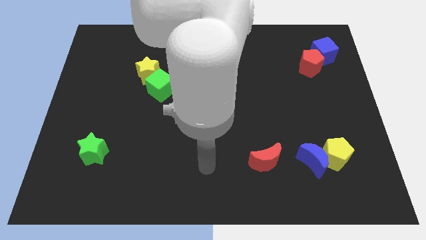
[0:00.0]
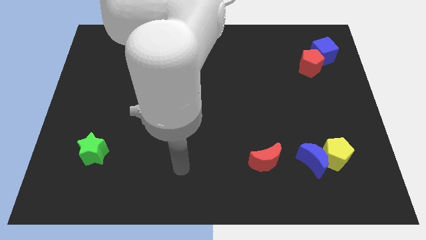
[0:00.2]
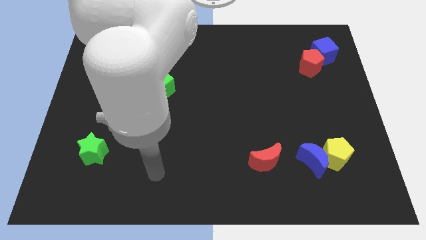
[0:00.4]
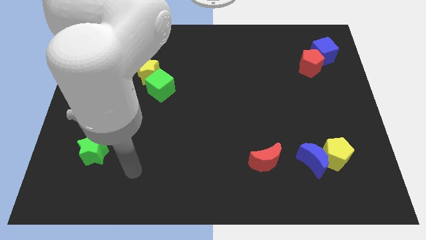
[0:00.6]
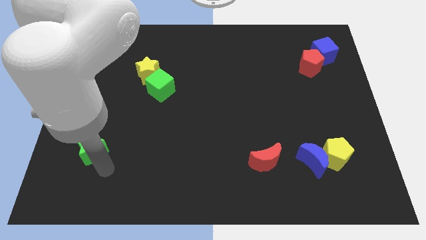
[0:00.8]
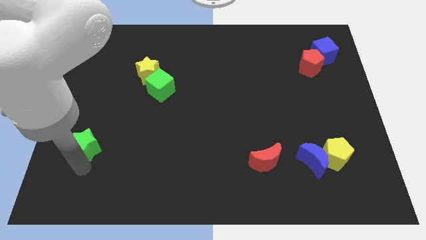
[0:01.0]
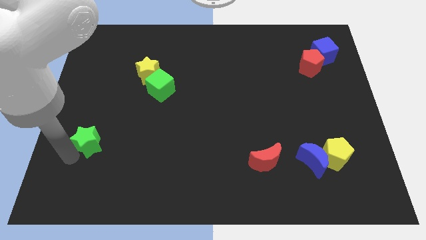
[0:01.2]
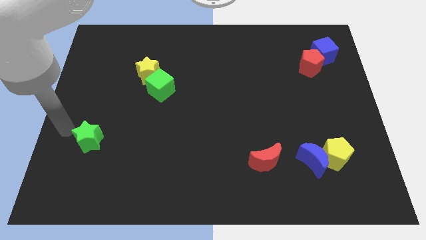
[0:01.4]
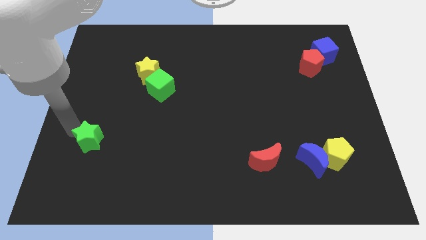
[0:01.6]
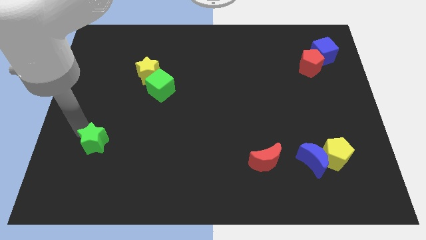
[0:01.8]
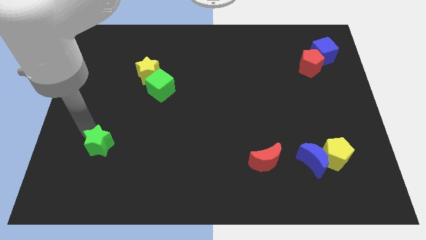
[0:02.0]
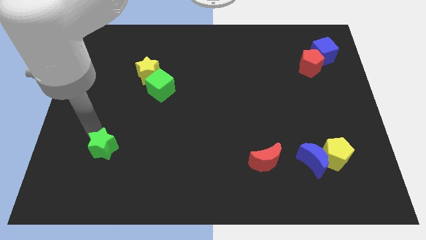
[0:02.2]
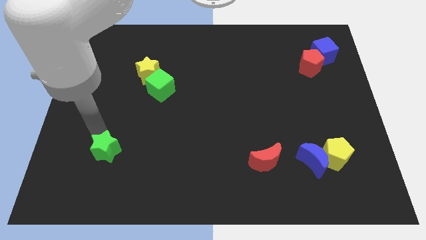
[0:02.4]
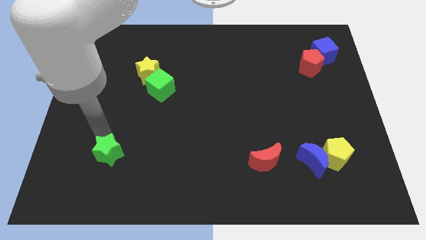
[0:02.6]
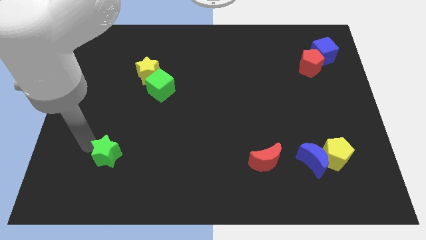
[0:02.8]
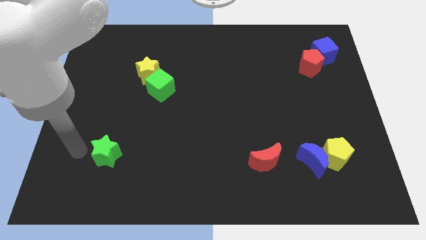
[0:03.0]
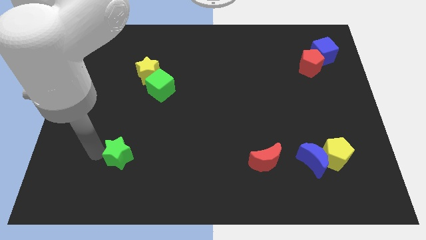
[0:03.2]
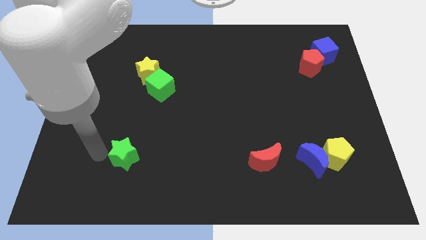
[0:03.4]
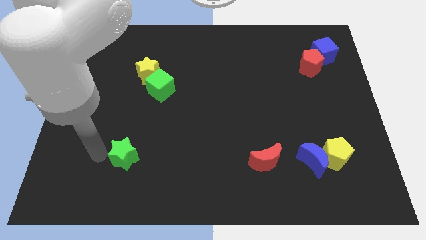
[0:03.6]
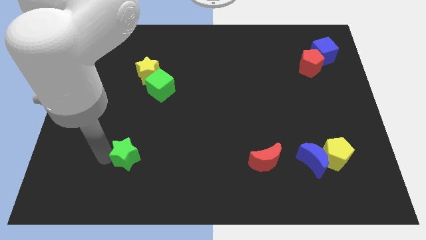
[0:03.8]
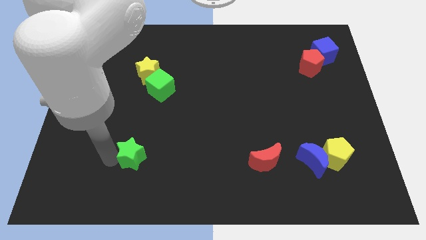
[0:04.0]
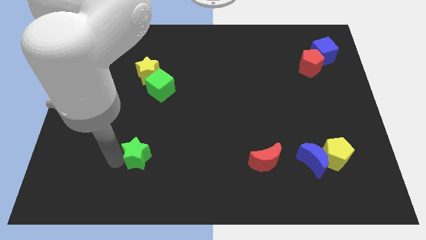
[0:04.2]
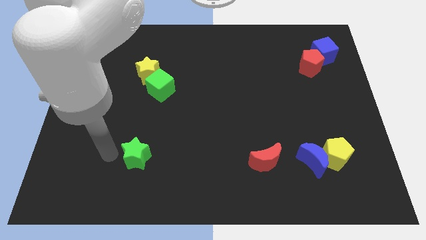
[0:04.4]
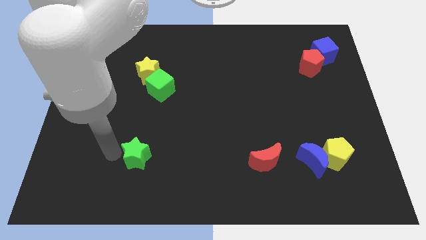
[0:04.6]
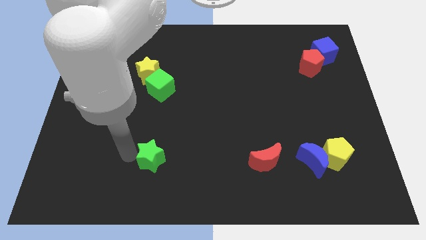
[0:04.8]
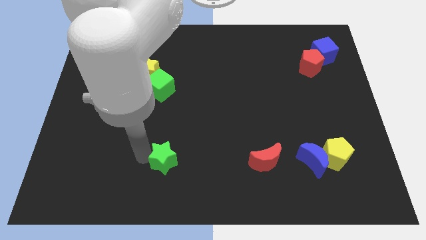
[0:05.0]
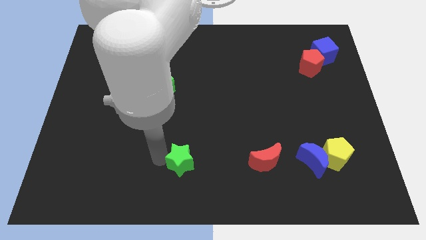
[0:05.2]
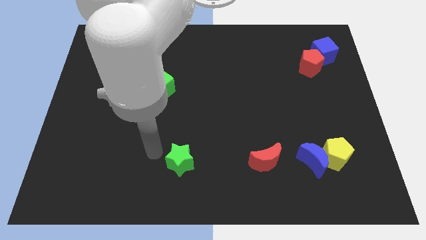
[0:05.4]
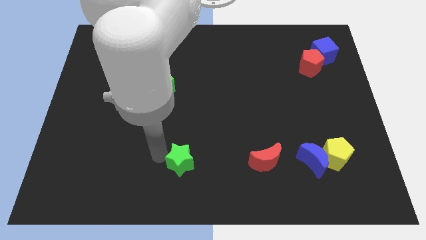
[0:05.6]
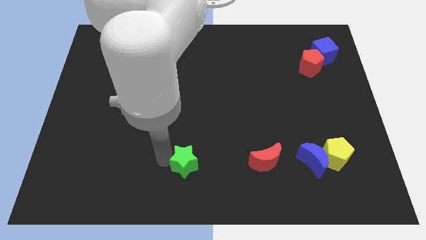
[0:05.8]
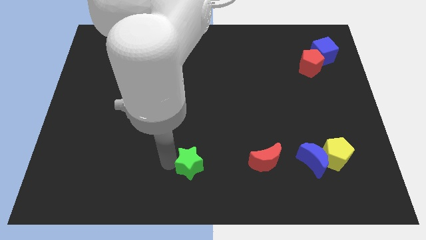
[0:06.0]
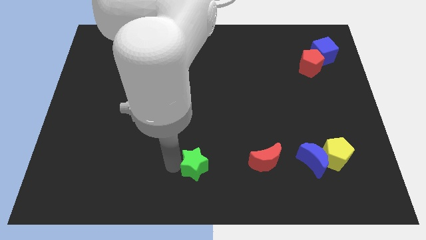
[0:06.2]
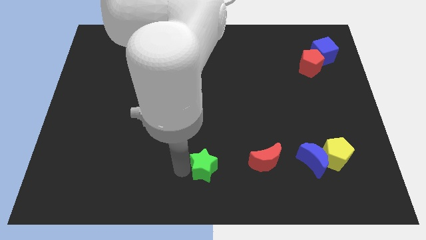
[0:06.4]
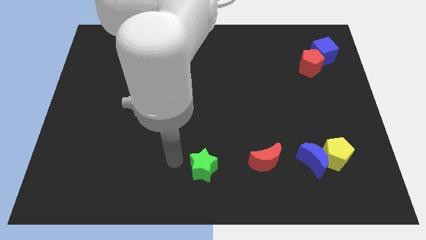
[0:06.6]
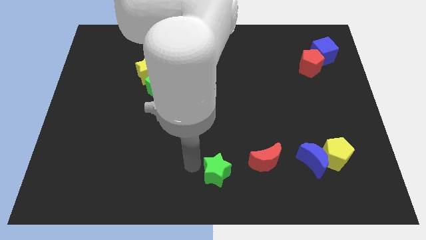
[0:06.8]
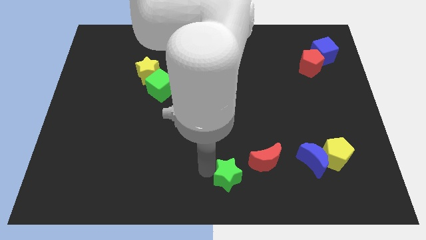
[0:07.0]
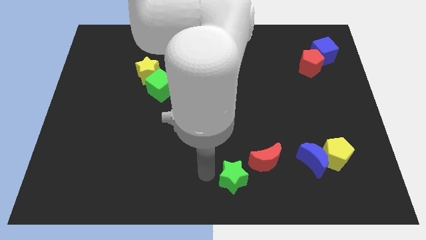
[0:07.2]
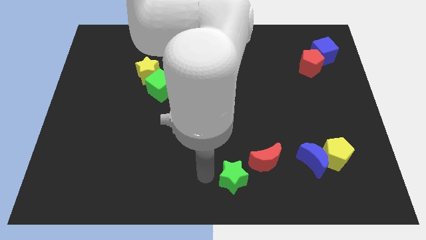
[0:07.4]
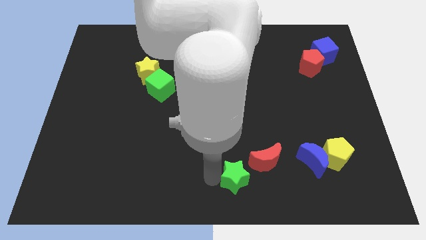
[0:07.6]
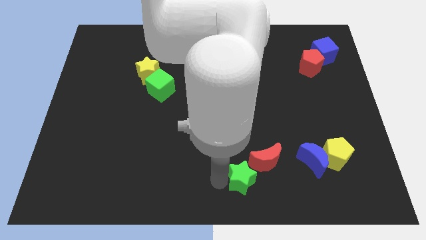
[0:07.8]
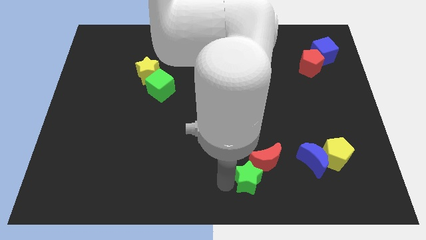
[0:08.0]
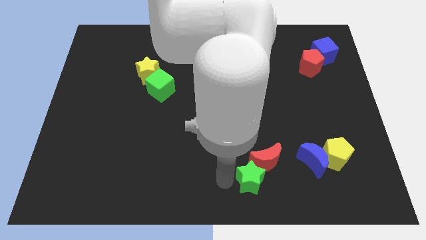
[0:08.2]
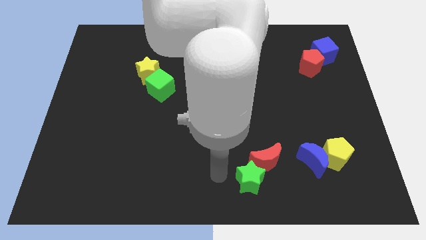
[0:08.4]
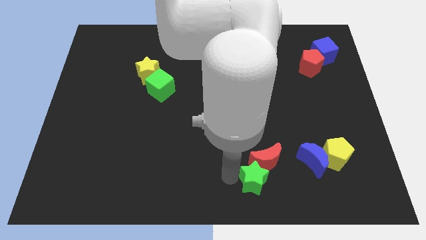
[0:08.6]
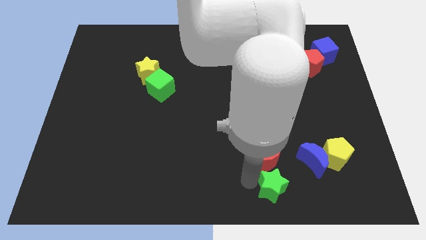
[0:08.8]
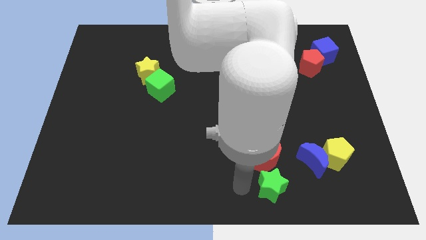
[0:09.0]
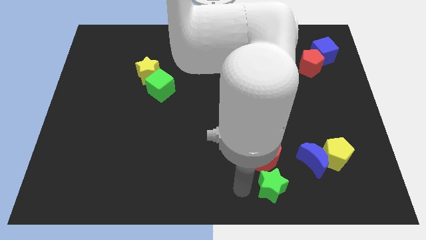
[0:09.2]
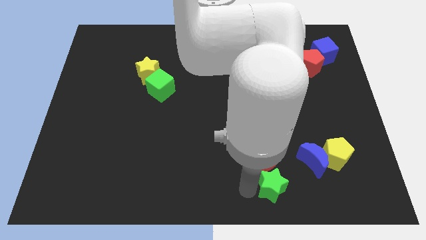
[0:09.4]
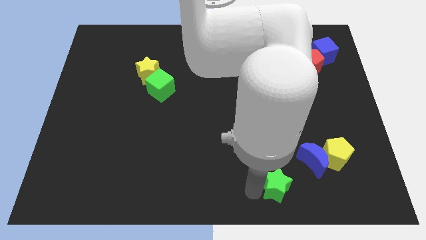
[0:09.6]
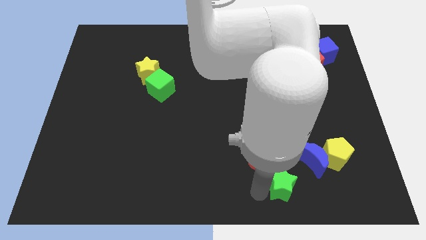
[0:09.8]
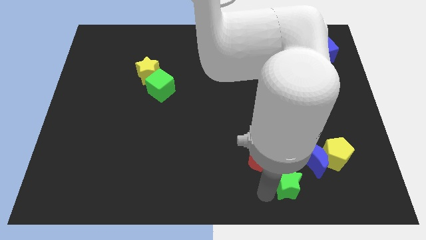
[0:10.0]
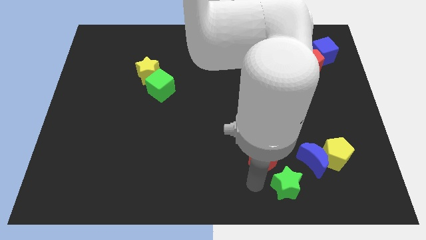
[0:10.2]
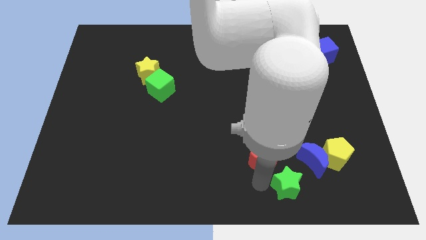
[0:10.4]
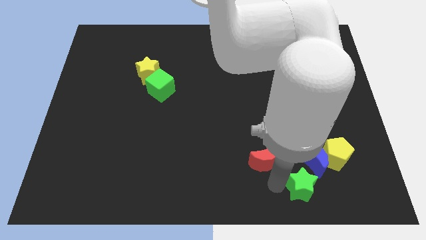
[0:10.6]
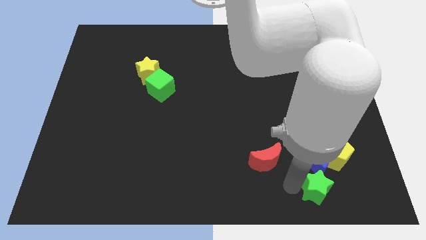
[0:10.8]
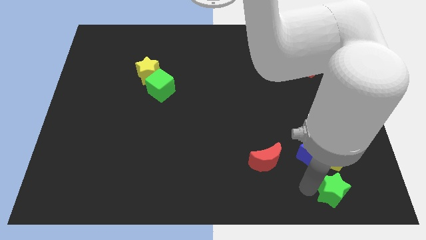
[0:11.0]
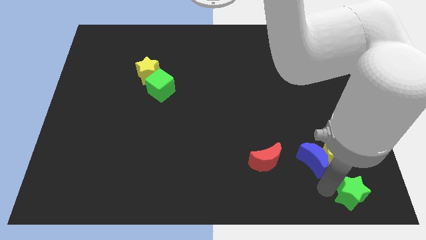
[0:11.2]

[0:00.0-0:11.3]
push the green star to the bottom right of the board

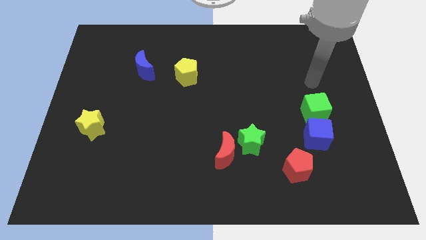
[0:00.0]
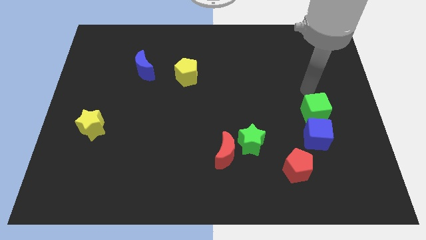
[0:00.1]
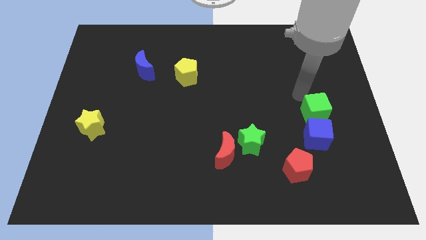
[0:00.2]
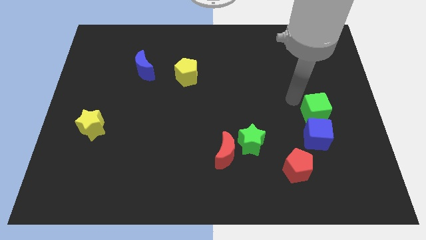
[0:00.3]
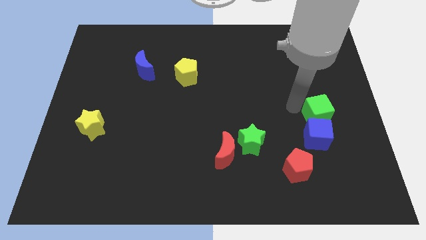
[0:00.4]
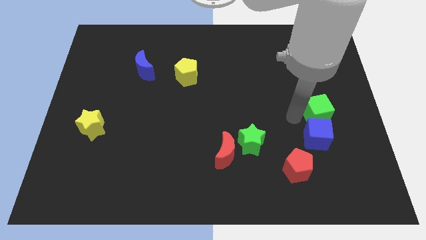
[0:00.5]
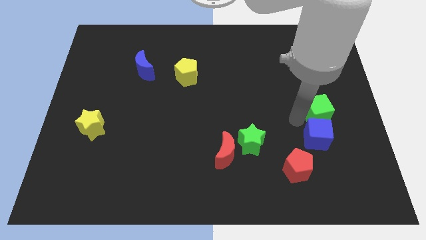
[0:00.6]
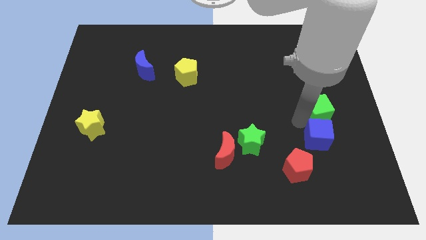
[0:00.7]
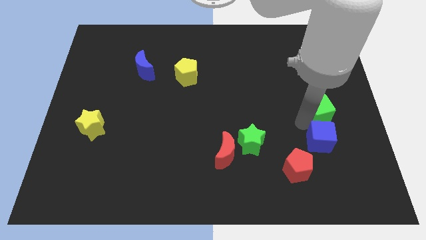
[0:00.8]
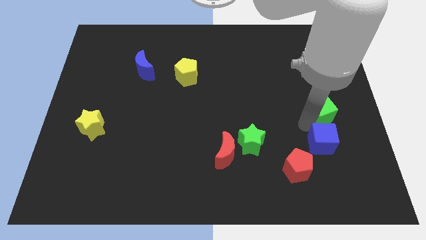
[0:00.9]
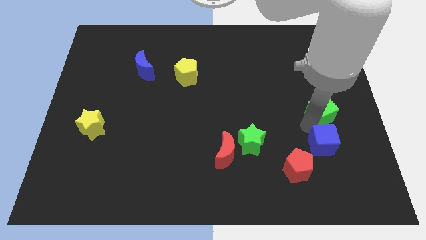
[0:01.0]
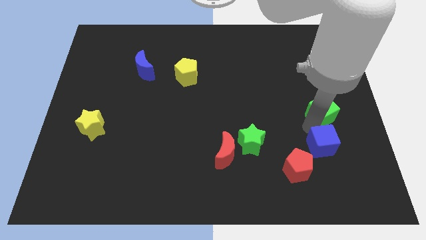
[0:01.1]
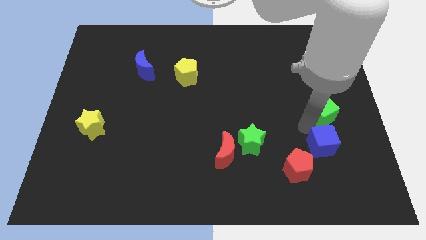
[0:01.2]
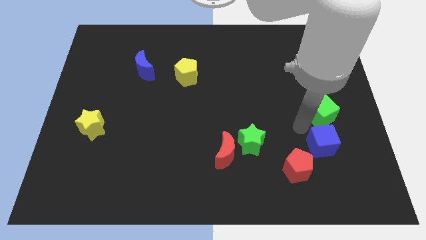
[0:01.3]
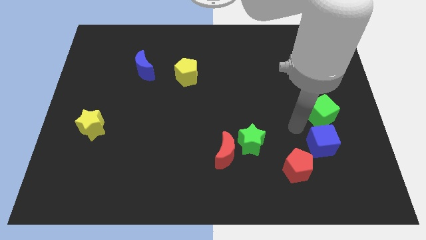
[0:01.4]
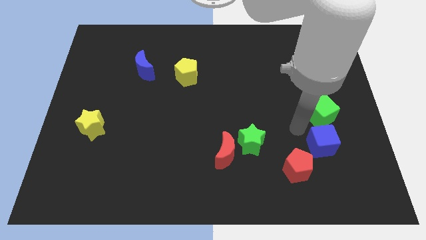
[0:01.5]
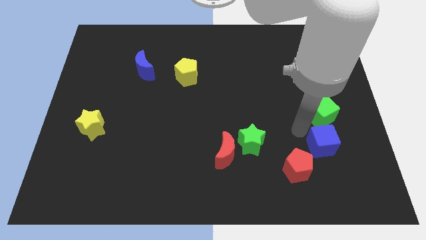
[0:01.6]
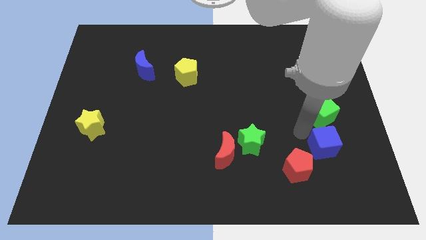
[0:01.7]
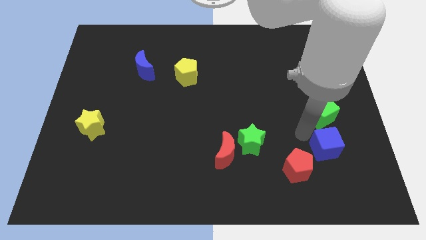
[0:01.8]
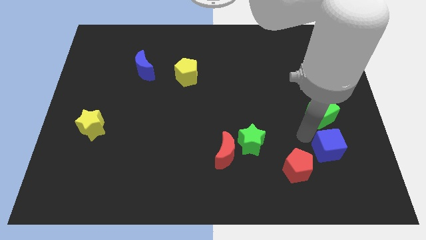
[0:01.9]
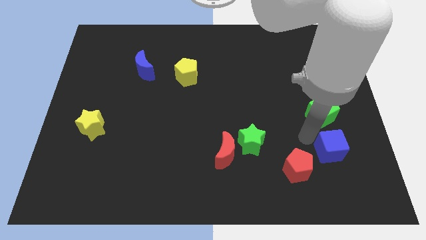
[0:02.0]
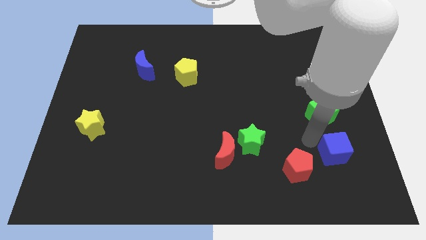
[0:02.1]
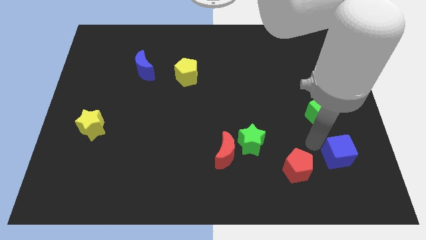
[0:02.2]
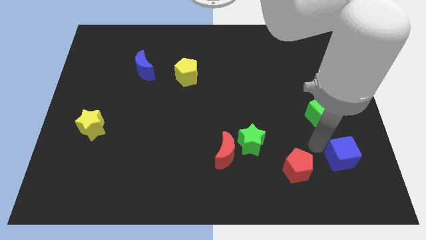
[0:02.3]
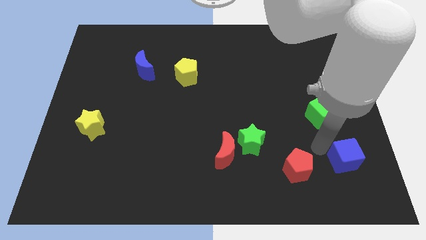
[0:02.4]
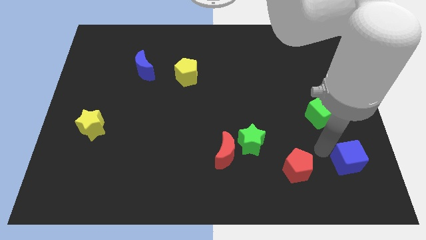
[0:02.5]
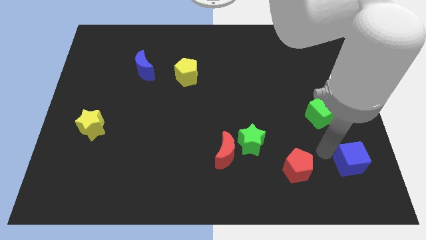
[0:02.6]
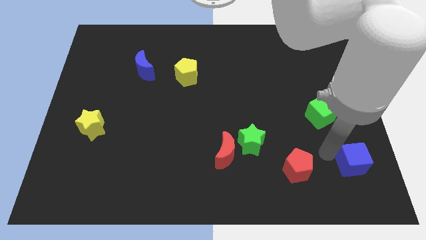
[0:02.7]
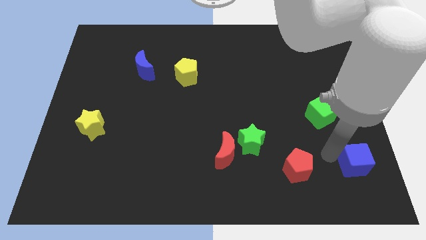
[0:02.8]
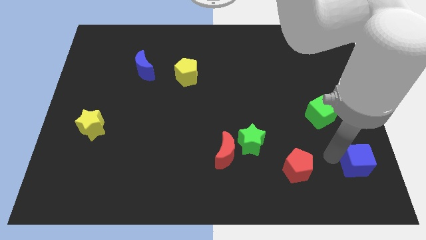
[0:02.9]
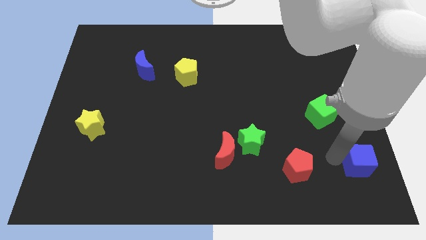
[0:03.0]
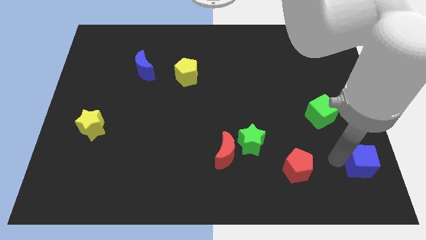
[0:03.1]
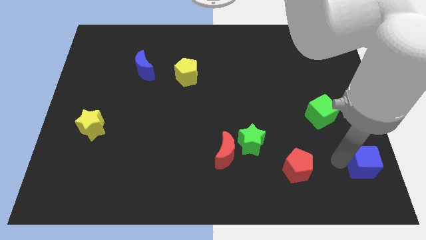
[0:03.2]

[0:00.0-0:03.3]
move the blue cube to the bottom right
